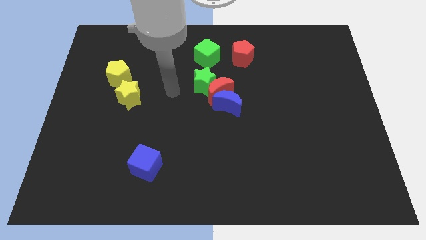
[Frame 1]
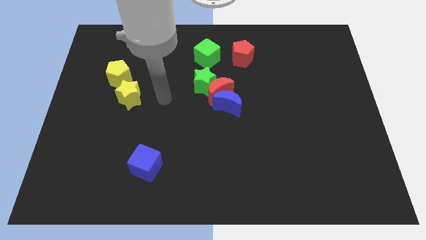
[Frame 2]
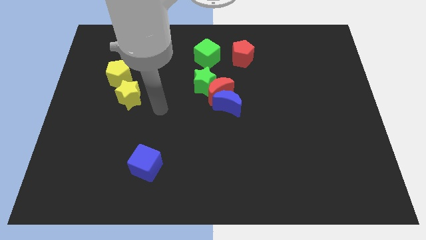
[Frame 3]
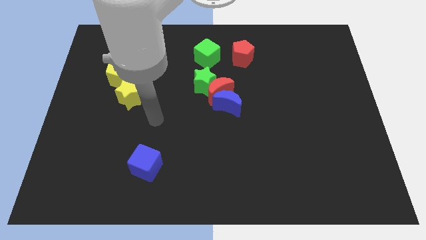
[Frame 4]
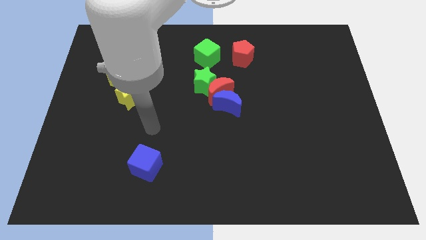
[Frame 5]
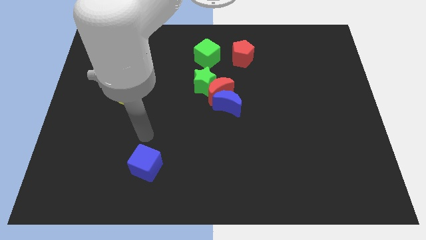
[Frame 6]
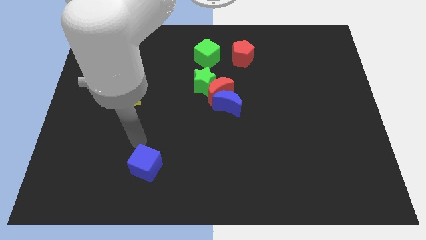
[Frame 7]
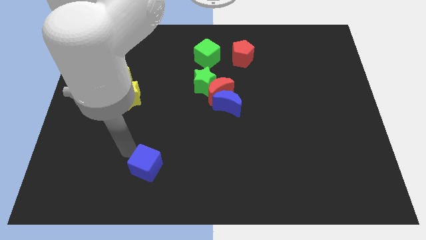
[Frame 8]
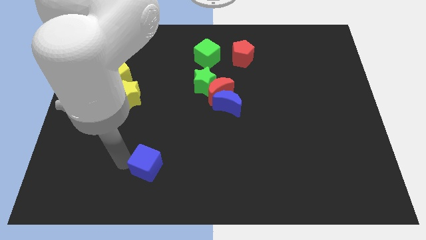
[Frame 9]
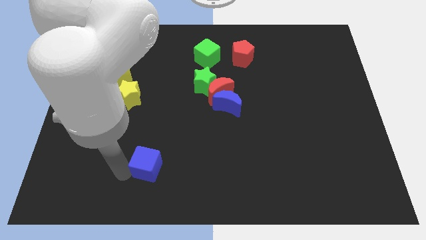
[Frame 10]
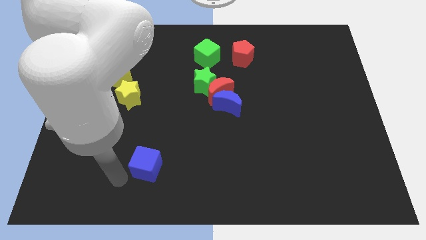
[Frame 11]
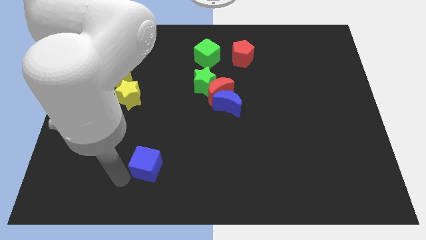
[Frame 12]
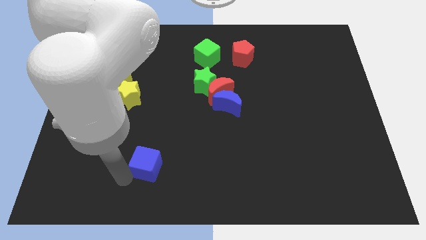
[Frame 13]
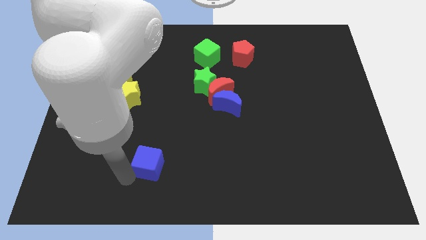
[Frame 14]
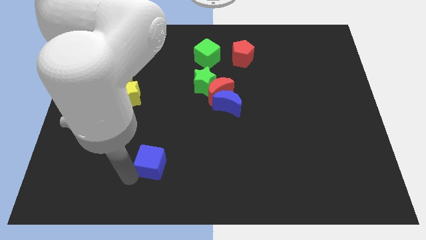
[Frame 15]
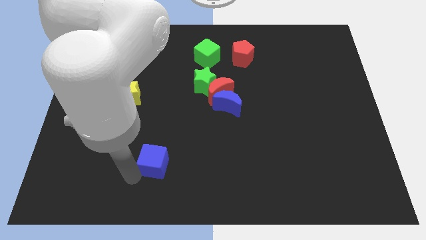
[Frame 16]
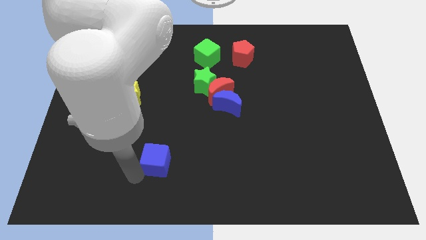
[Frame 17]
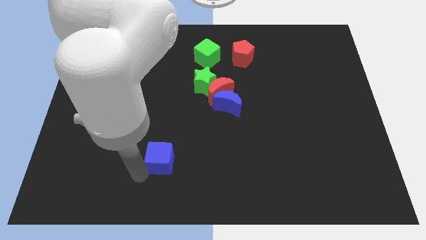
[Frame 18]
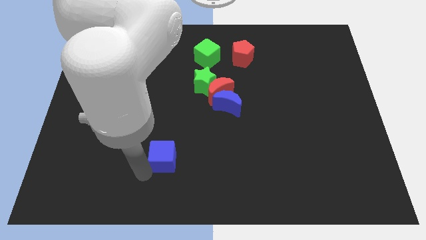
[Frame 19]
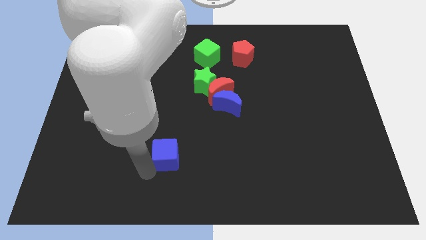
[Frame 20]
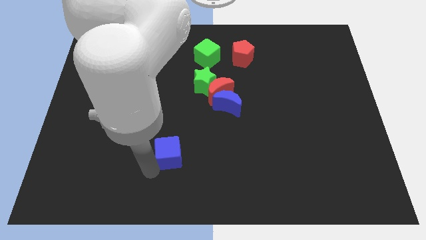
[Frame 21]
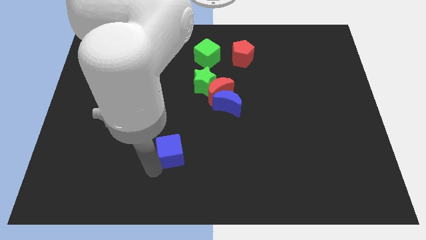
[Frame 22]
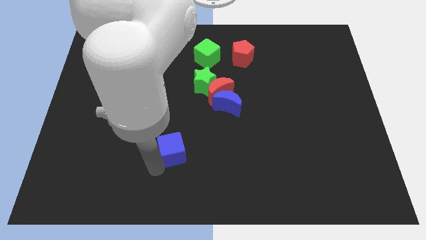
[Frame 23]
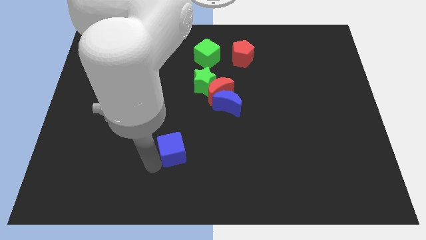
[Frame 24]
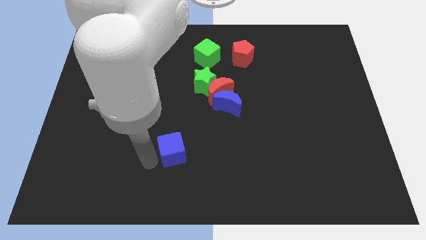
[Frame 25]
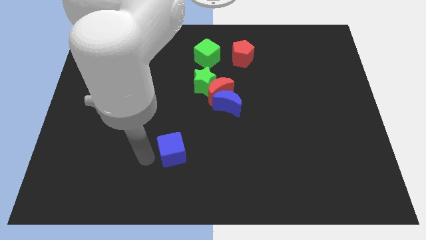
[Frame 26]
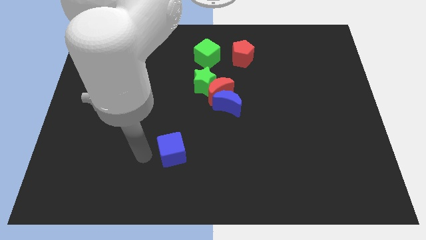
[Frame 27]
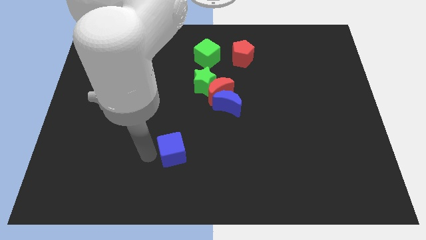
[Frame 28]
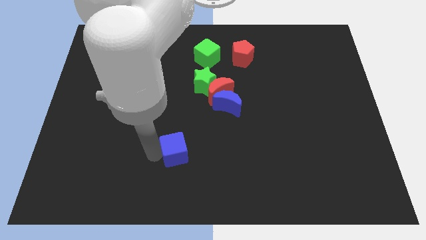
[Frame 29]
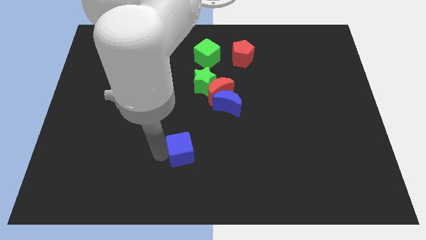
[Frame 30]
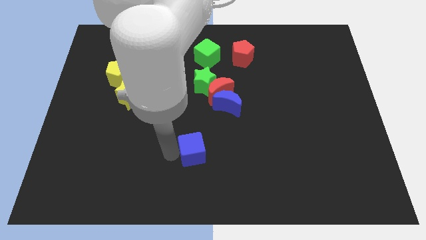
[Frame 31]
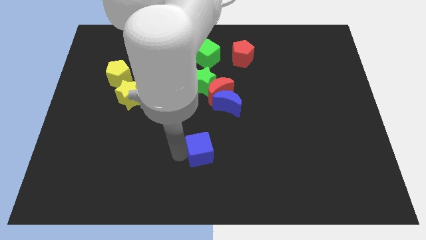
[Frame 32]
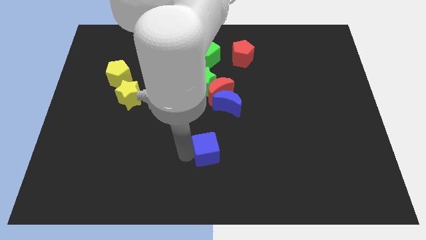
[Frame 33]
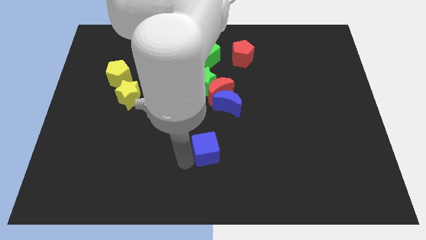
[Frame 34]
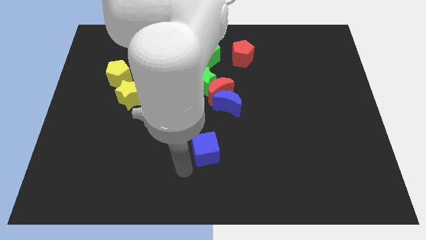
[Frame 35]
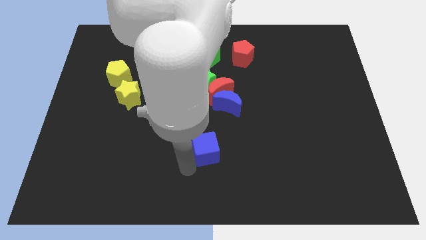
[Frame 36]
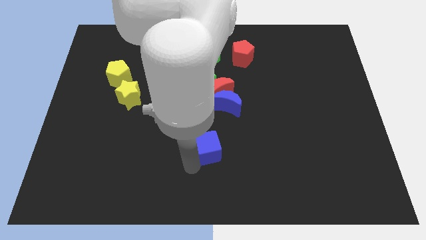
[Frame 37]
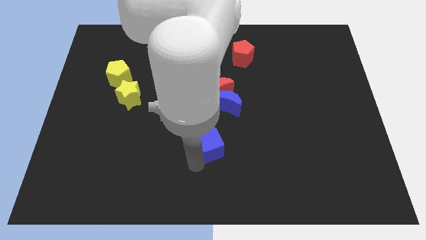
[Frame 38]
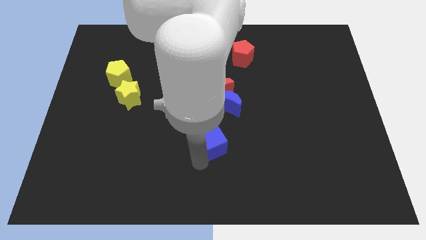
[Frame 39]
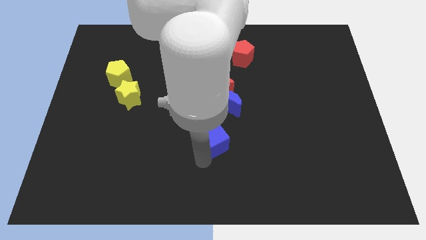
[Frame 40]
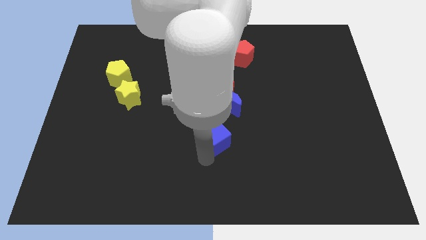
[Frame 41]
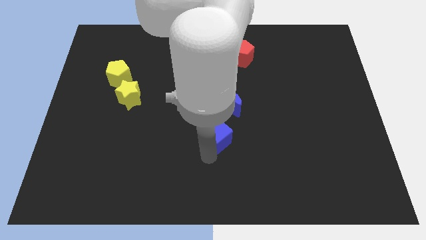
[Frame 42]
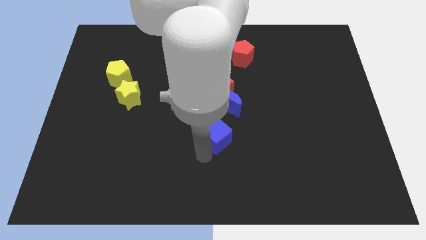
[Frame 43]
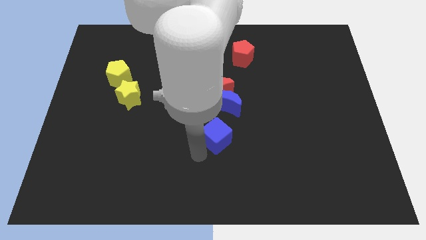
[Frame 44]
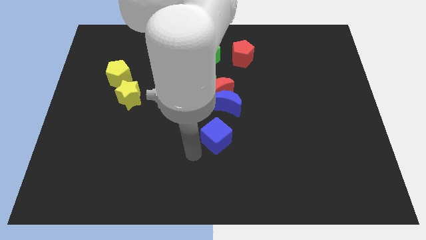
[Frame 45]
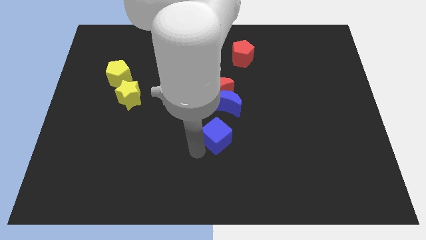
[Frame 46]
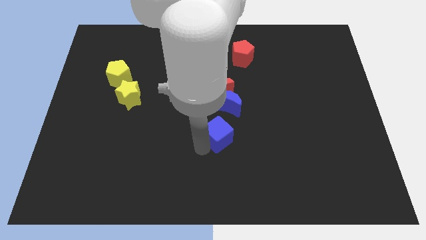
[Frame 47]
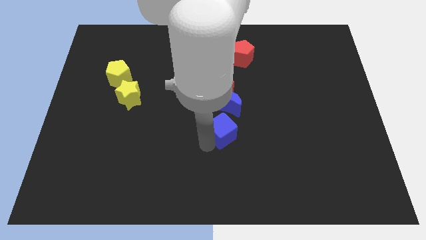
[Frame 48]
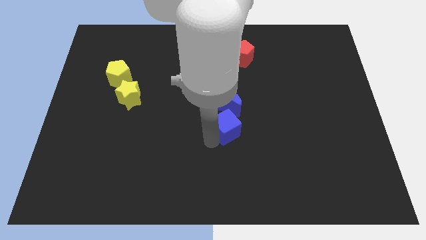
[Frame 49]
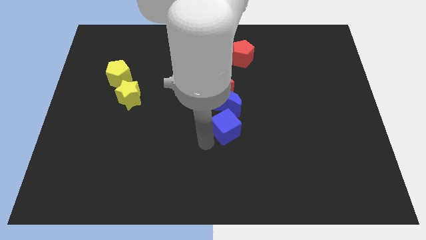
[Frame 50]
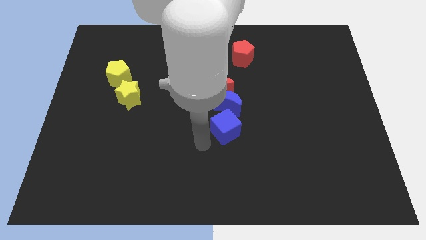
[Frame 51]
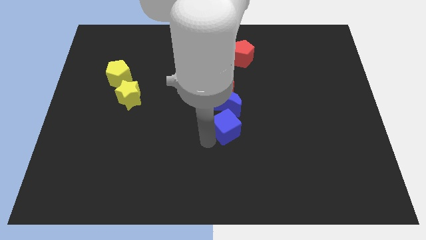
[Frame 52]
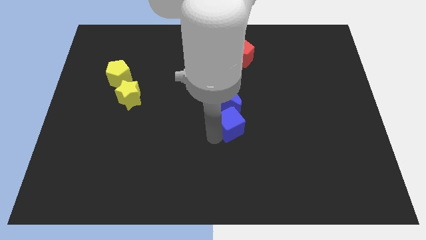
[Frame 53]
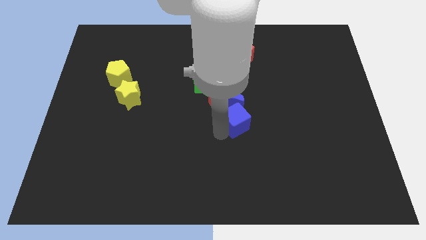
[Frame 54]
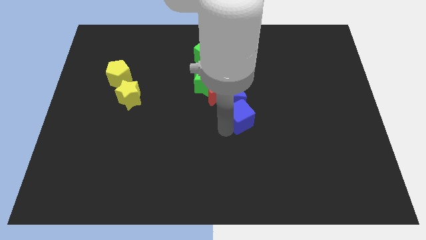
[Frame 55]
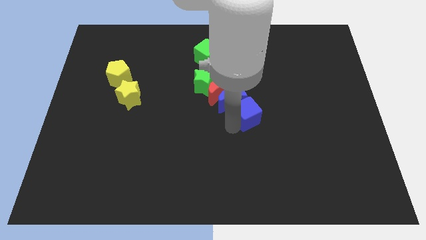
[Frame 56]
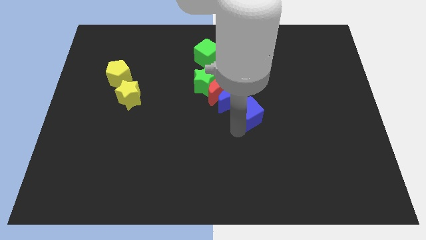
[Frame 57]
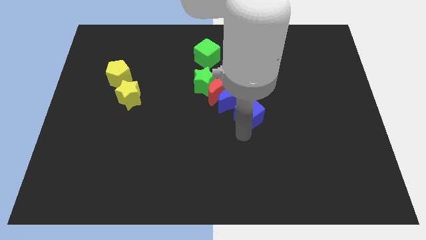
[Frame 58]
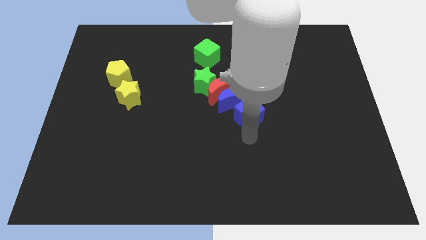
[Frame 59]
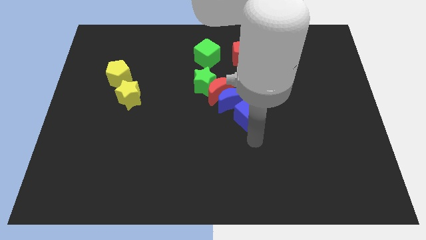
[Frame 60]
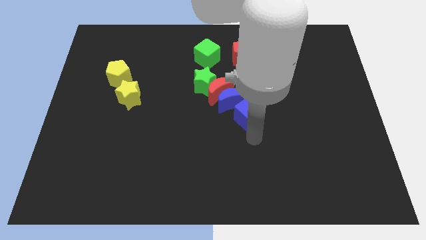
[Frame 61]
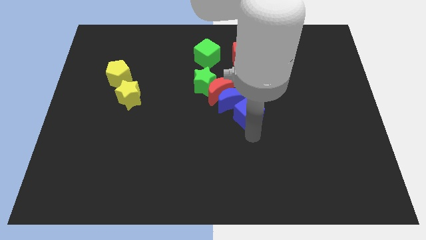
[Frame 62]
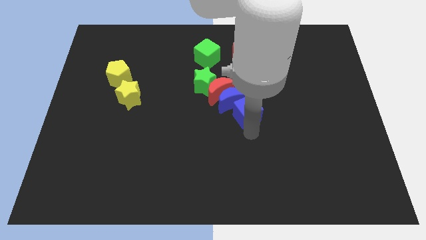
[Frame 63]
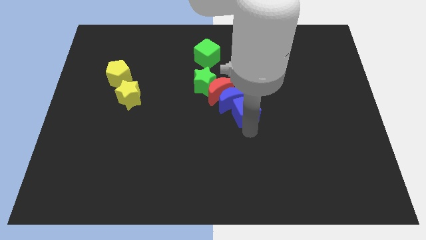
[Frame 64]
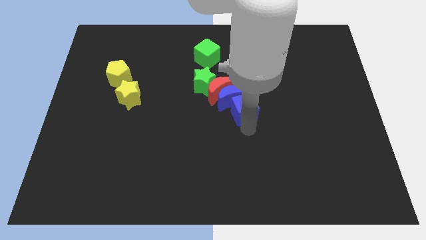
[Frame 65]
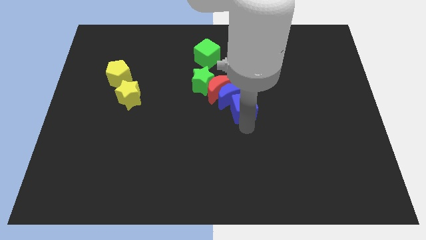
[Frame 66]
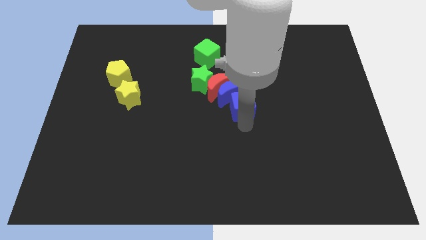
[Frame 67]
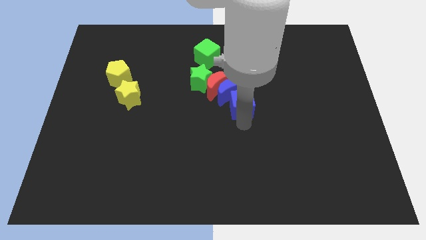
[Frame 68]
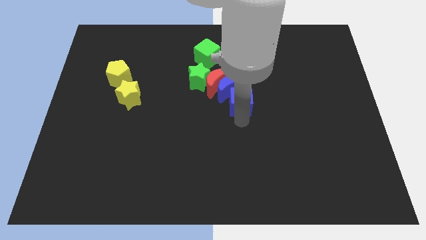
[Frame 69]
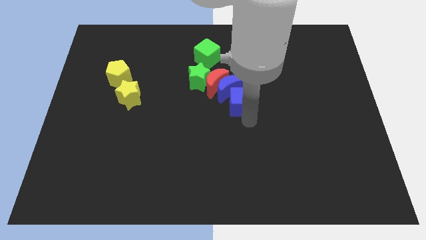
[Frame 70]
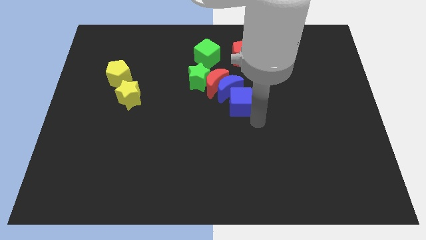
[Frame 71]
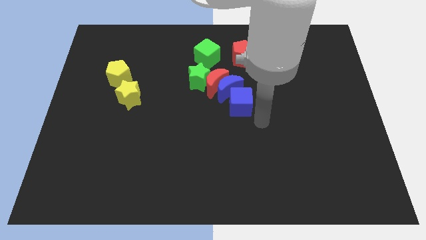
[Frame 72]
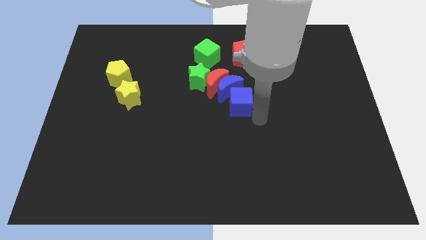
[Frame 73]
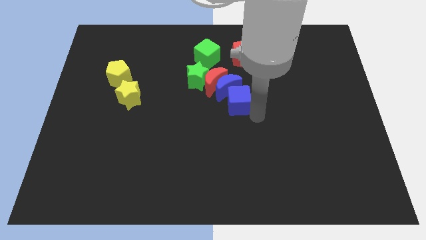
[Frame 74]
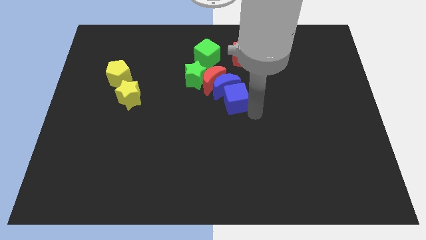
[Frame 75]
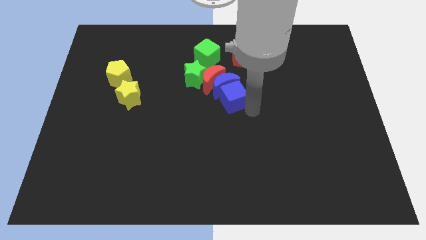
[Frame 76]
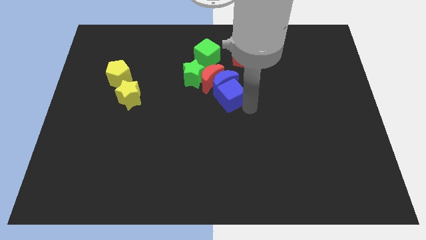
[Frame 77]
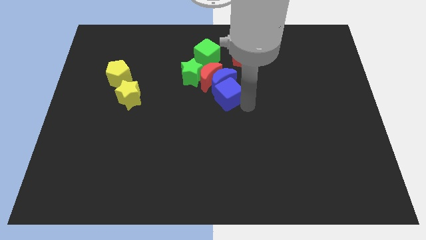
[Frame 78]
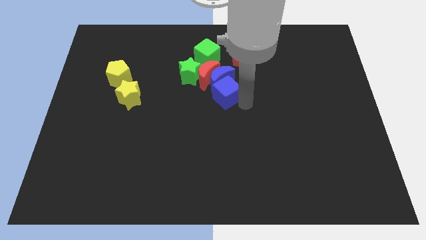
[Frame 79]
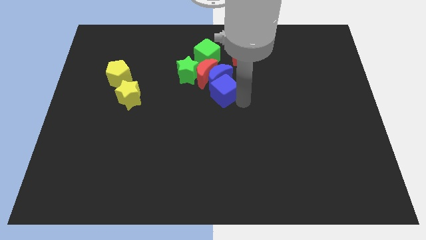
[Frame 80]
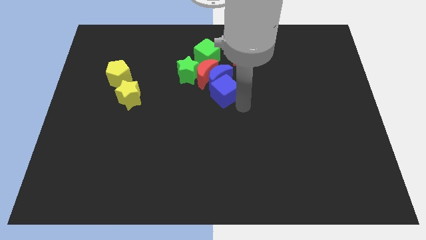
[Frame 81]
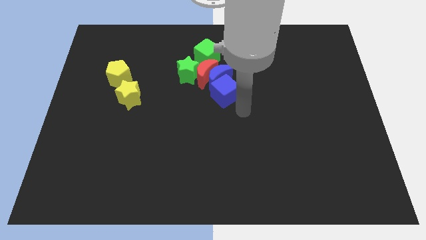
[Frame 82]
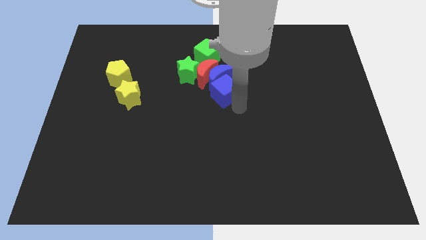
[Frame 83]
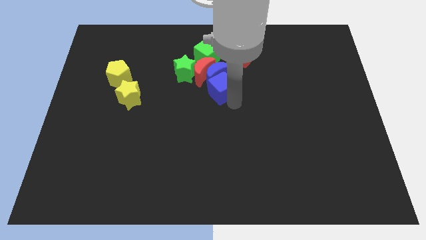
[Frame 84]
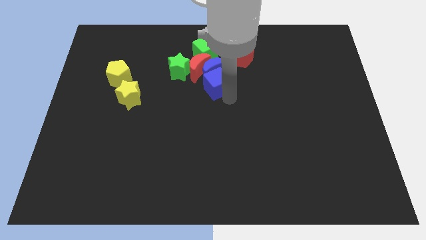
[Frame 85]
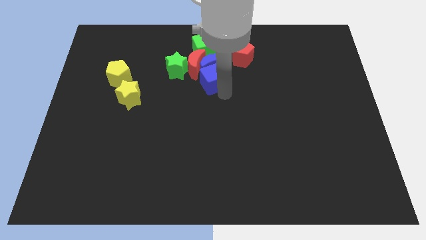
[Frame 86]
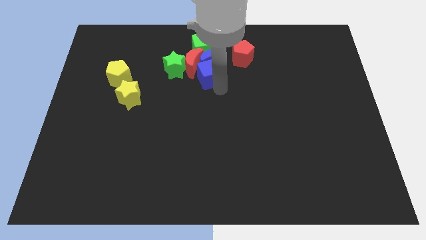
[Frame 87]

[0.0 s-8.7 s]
put the blue cube to the red moon
